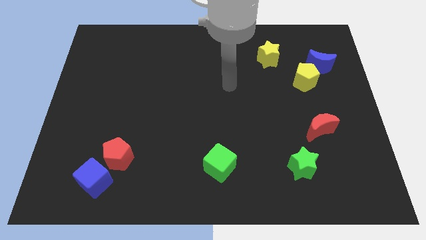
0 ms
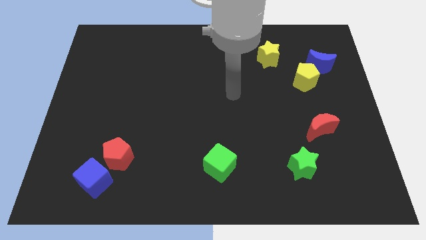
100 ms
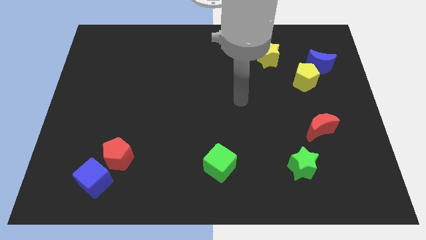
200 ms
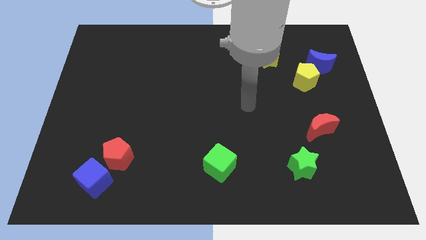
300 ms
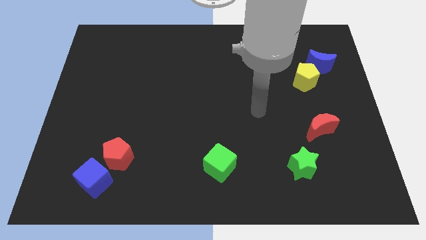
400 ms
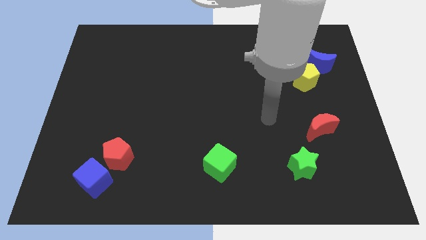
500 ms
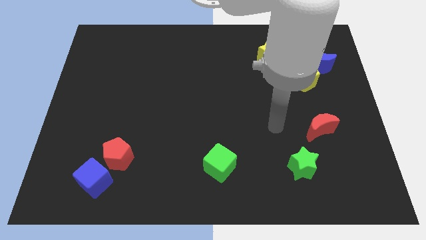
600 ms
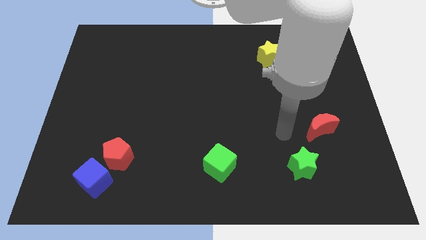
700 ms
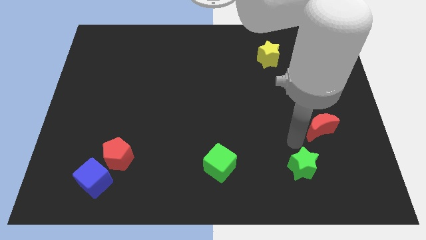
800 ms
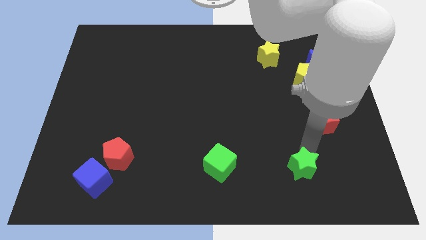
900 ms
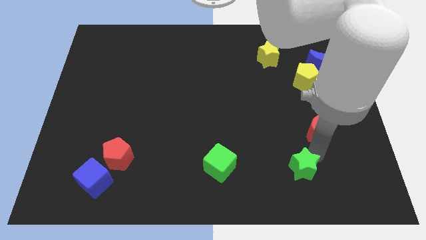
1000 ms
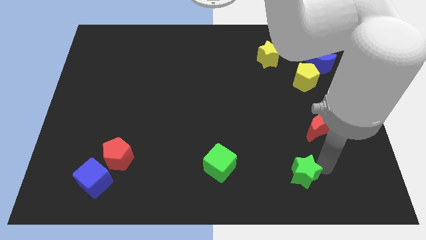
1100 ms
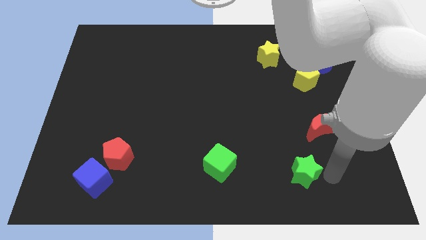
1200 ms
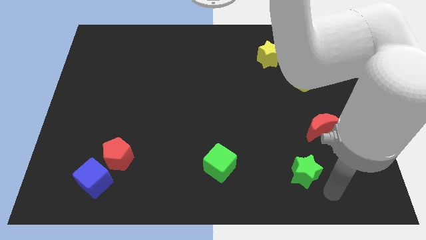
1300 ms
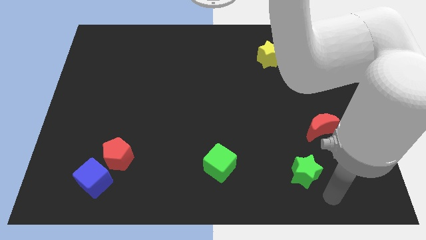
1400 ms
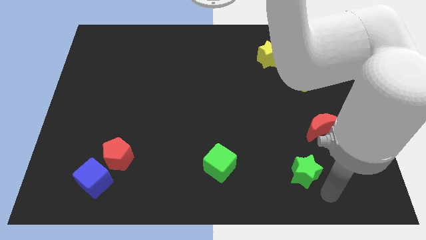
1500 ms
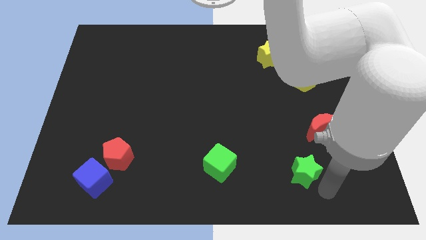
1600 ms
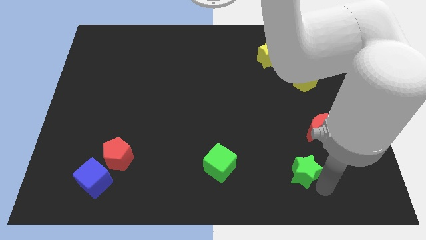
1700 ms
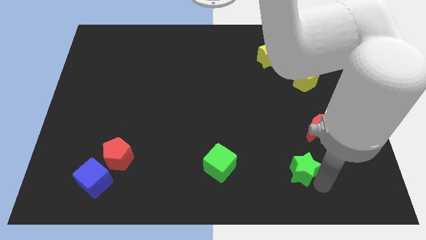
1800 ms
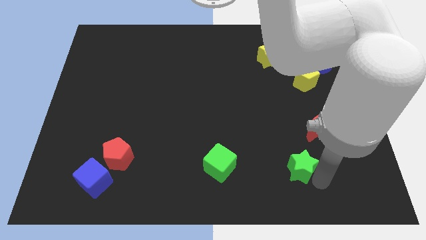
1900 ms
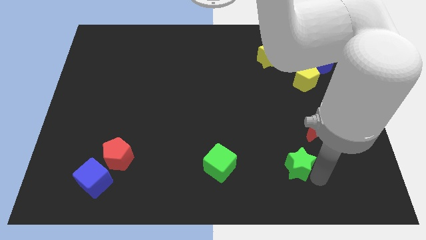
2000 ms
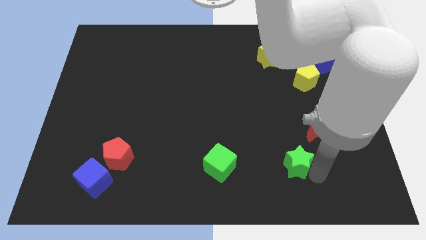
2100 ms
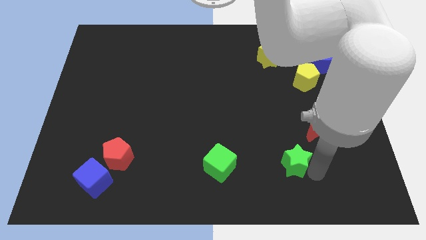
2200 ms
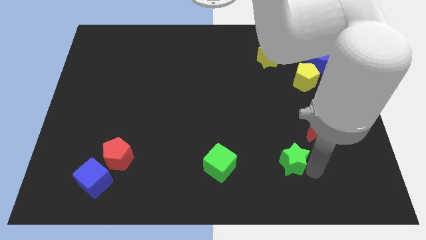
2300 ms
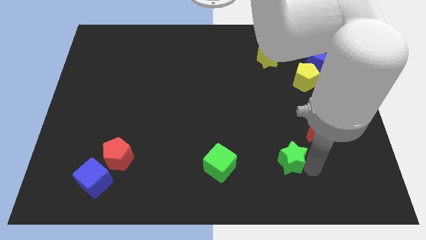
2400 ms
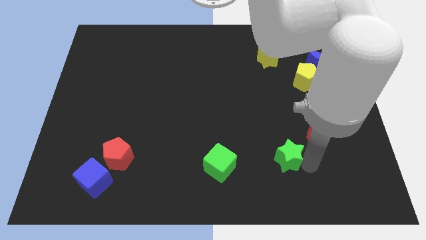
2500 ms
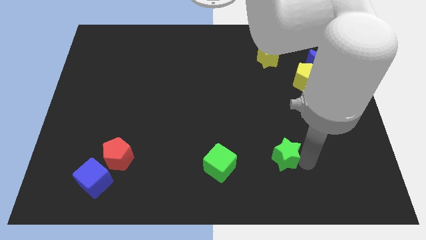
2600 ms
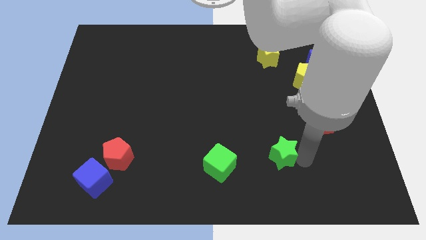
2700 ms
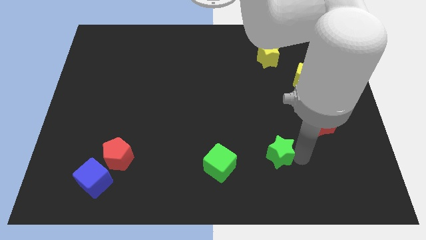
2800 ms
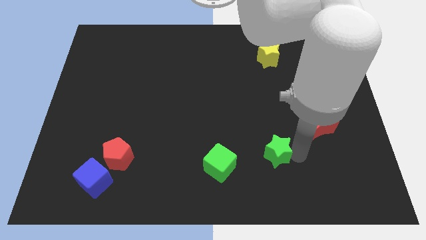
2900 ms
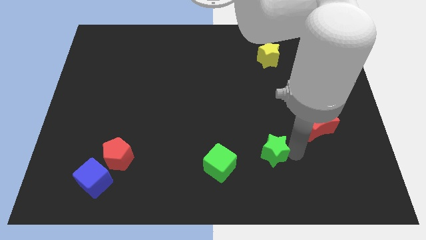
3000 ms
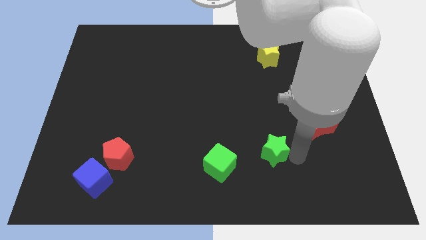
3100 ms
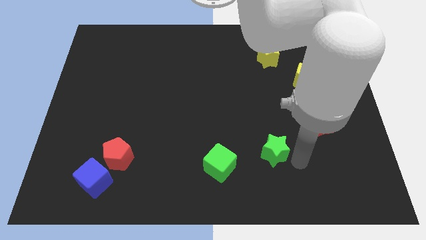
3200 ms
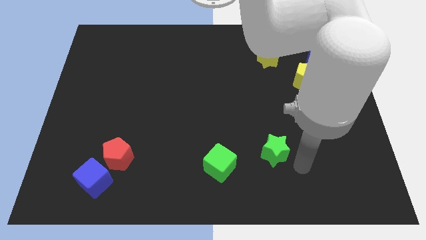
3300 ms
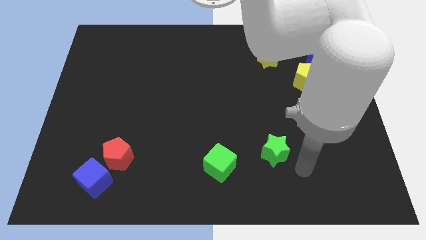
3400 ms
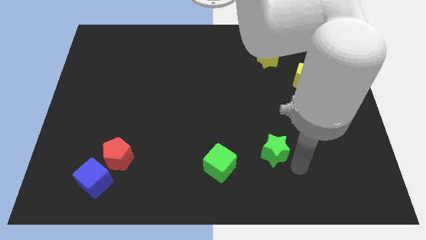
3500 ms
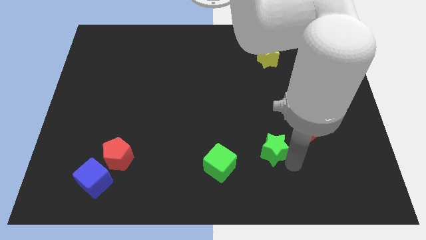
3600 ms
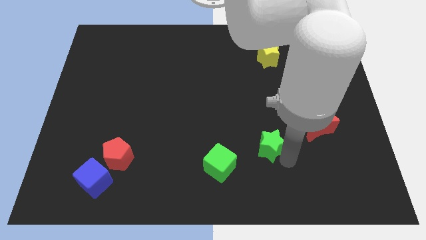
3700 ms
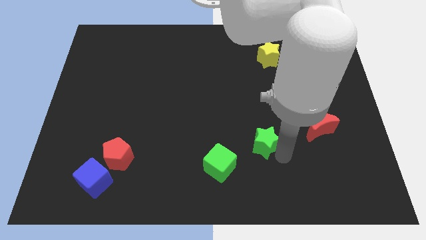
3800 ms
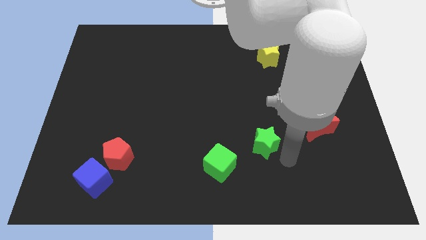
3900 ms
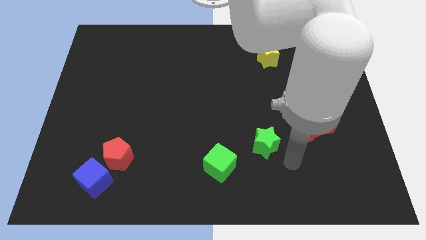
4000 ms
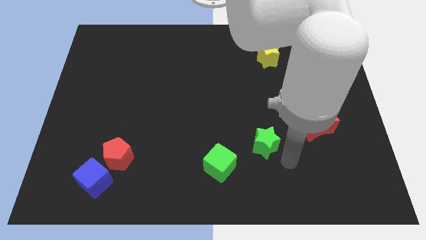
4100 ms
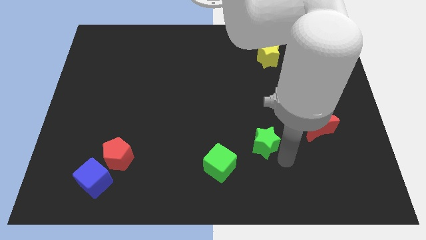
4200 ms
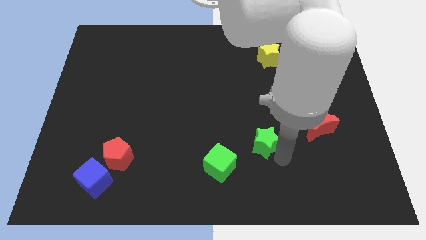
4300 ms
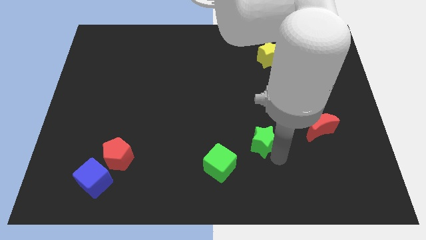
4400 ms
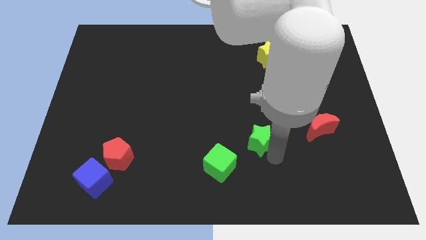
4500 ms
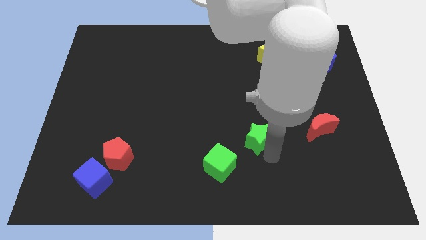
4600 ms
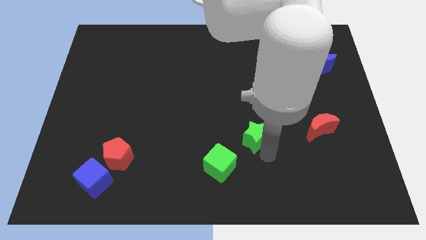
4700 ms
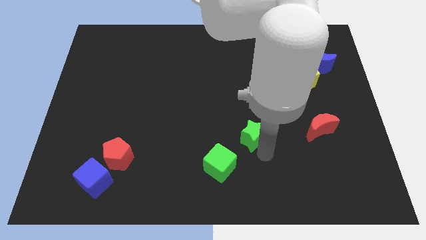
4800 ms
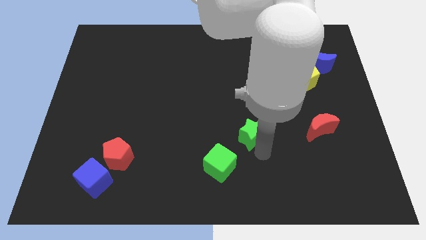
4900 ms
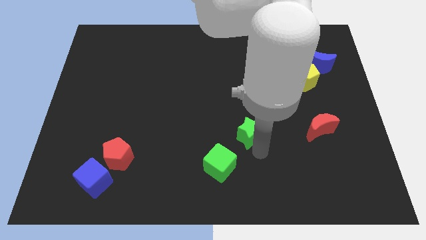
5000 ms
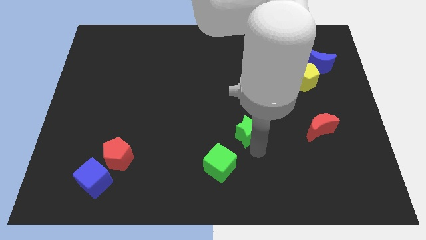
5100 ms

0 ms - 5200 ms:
push the green star to the middle of the board

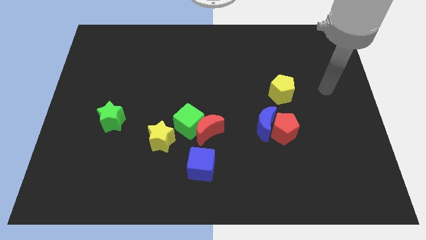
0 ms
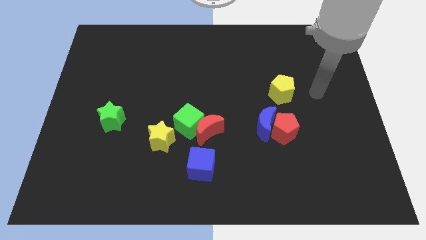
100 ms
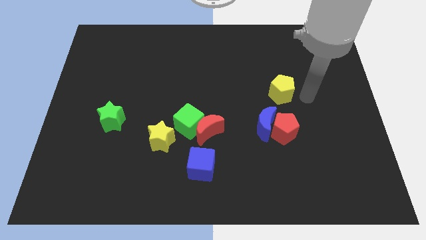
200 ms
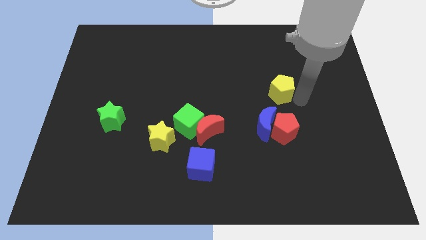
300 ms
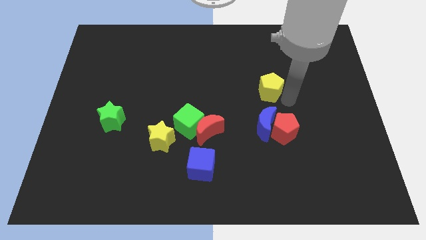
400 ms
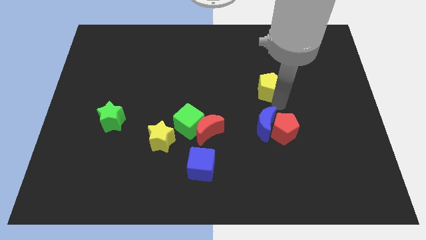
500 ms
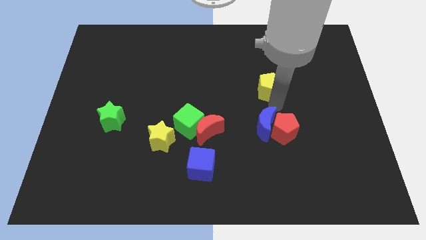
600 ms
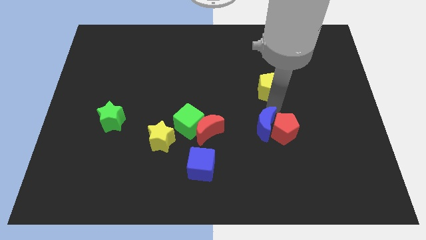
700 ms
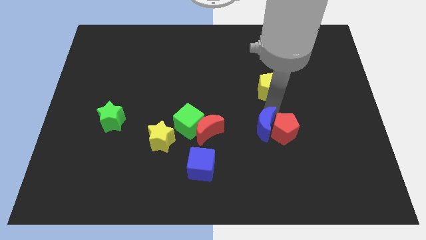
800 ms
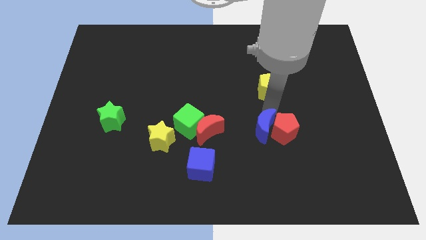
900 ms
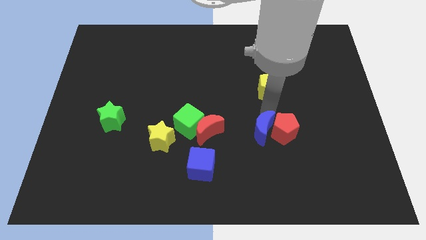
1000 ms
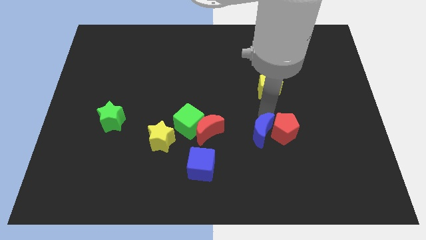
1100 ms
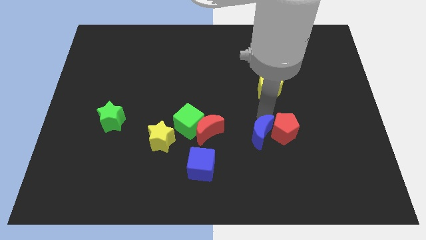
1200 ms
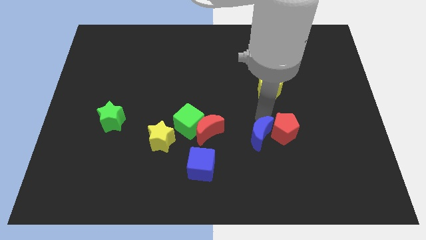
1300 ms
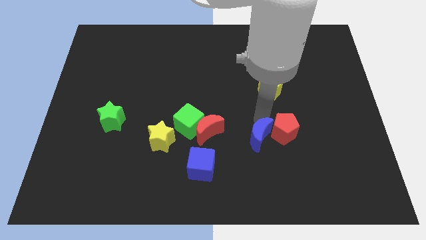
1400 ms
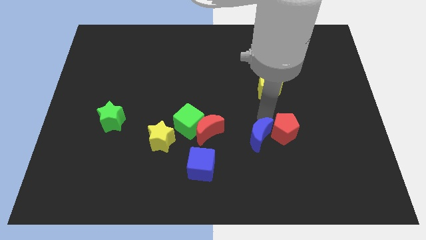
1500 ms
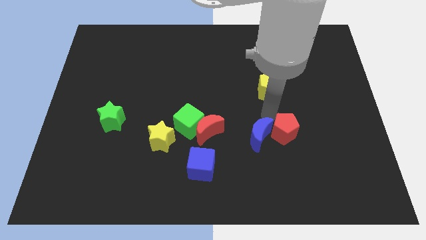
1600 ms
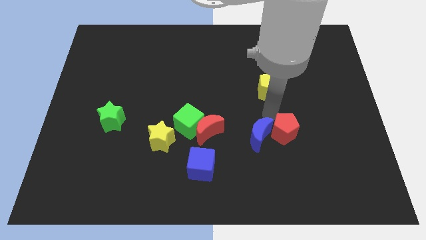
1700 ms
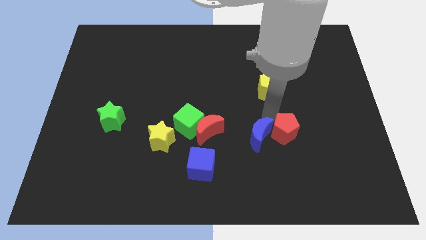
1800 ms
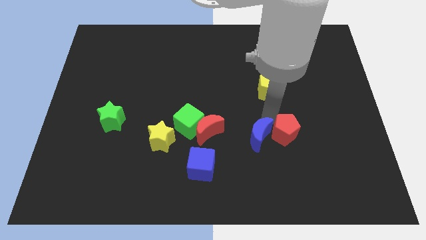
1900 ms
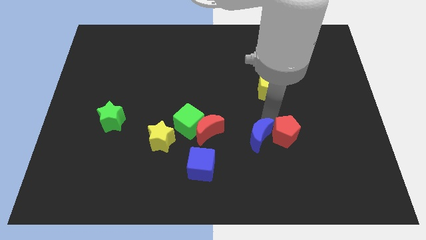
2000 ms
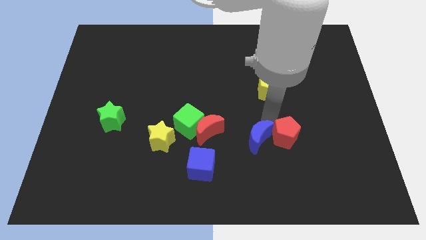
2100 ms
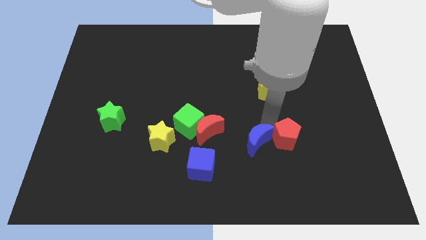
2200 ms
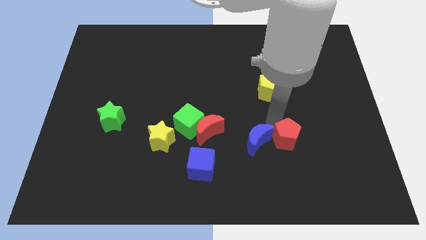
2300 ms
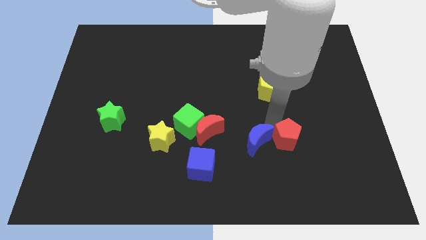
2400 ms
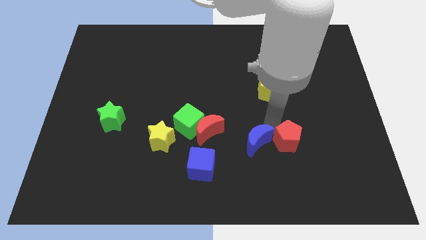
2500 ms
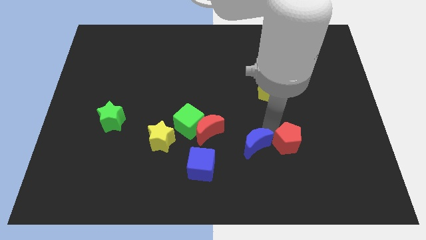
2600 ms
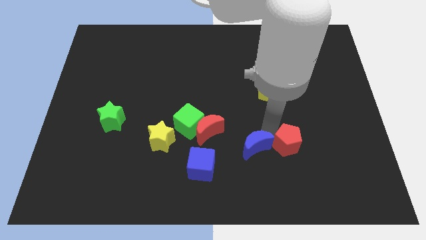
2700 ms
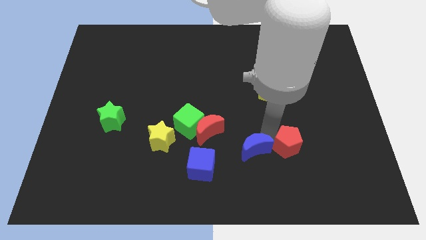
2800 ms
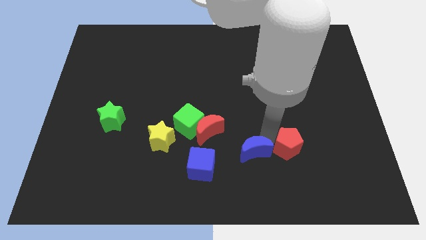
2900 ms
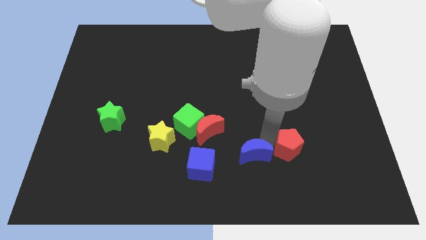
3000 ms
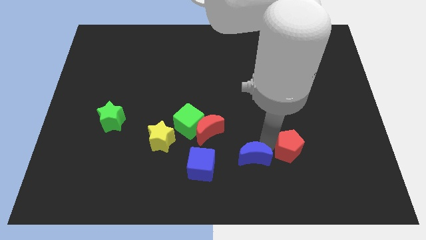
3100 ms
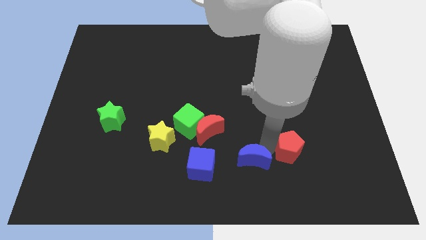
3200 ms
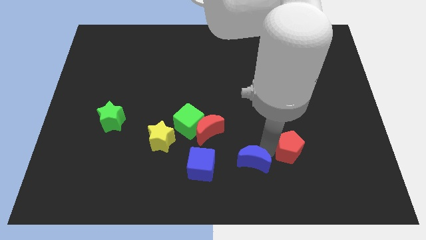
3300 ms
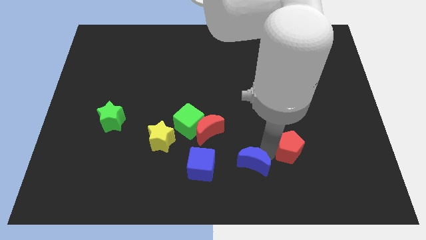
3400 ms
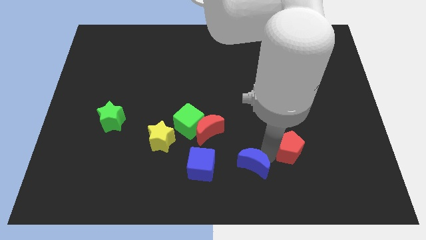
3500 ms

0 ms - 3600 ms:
slide the blue moon to the bottom
